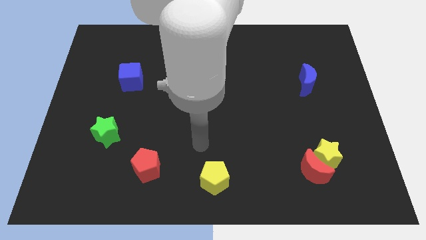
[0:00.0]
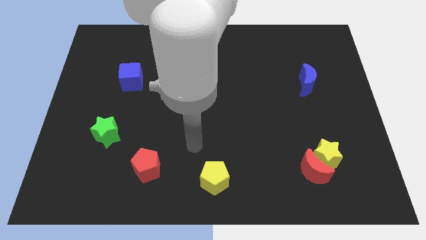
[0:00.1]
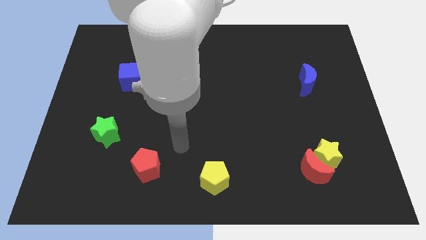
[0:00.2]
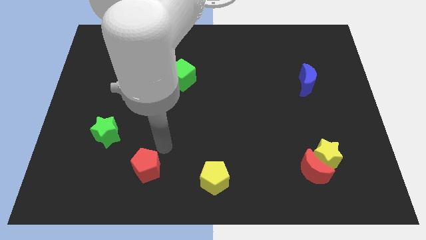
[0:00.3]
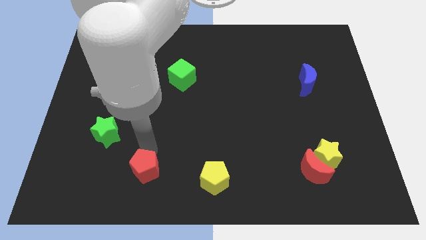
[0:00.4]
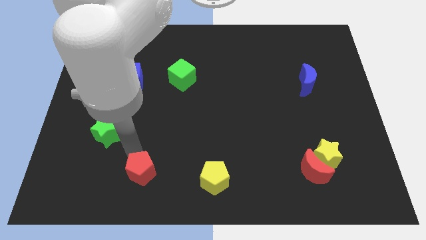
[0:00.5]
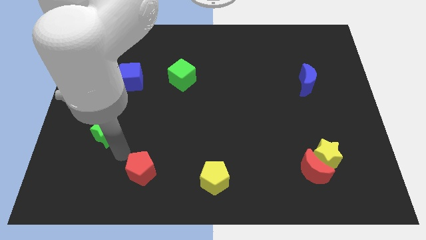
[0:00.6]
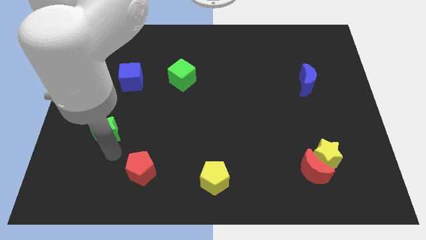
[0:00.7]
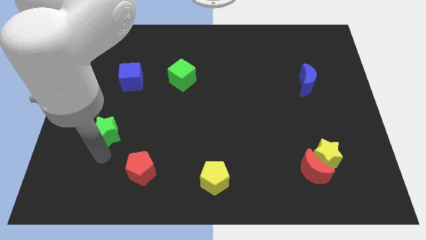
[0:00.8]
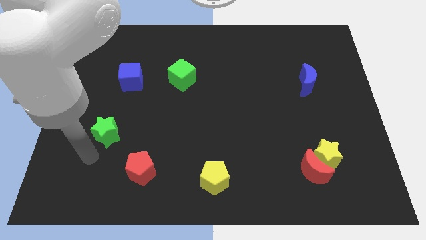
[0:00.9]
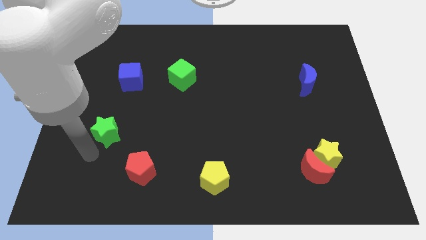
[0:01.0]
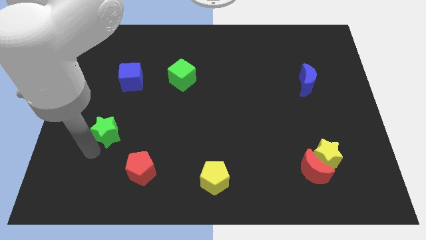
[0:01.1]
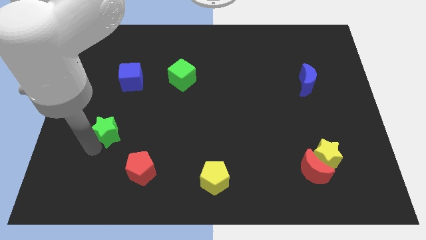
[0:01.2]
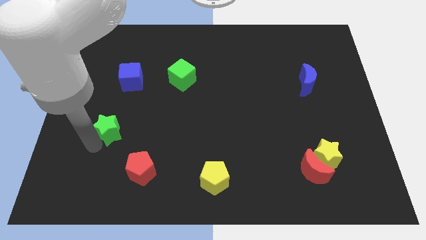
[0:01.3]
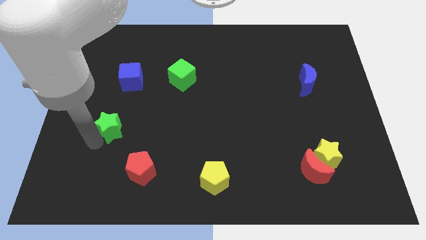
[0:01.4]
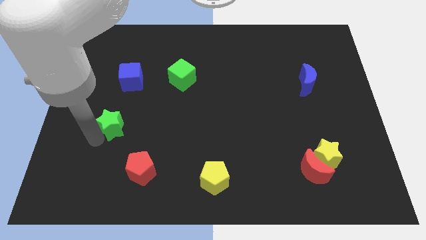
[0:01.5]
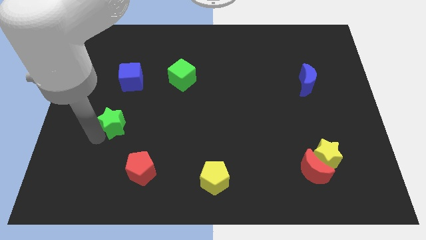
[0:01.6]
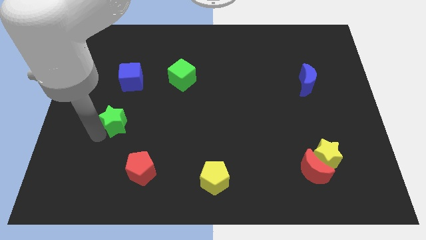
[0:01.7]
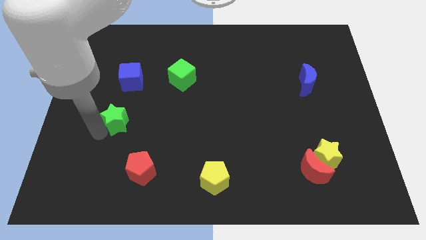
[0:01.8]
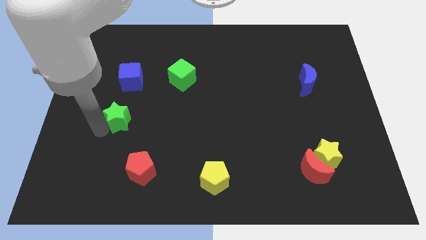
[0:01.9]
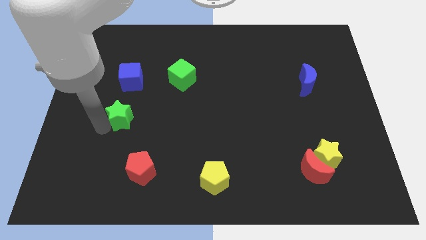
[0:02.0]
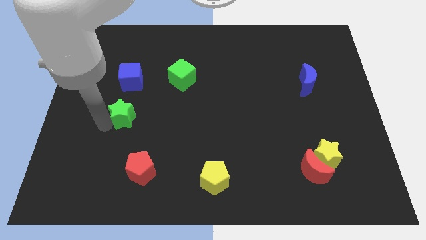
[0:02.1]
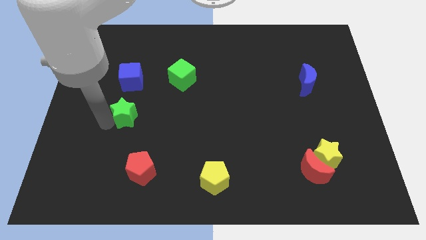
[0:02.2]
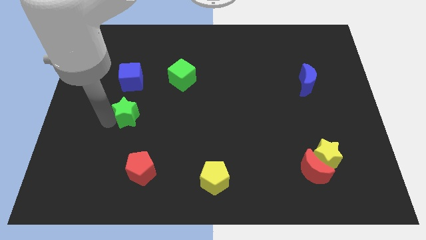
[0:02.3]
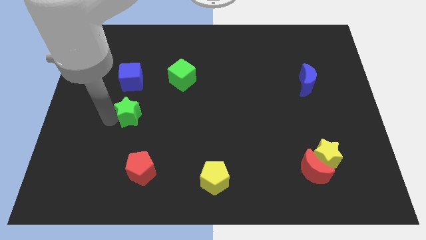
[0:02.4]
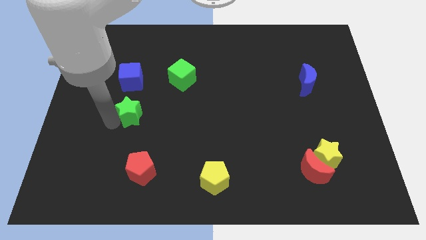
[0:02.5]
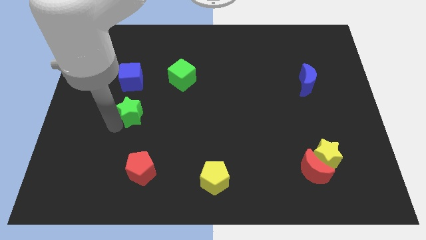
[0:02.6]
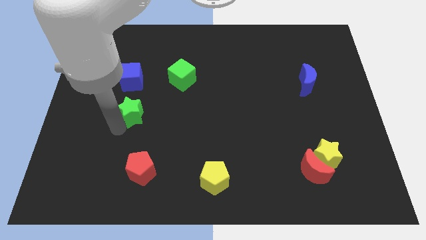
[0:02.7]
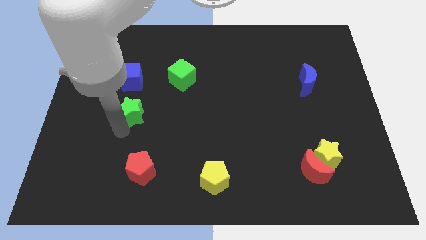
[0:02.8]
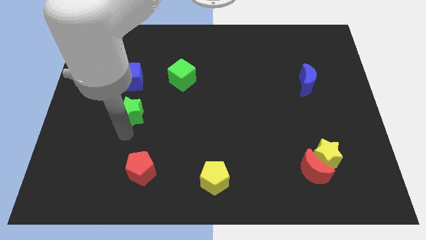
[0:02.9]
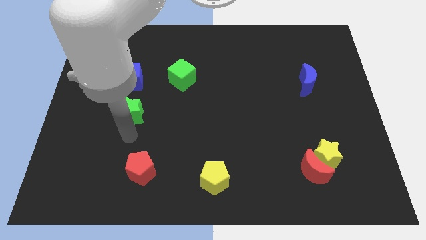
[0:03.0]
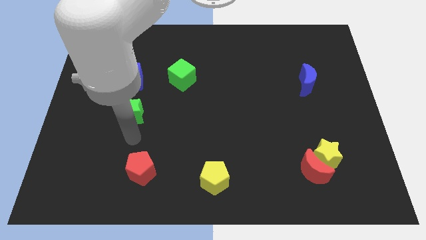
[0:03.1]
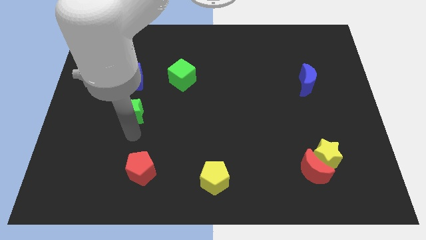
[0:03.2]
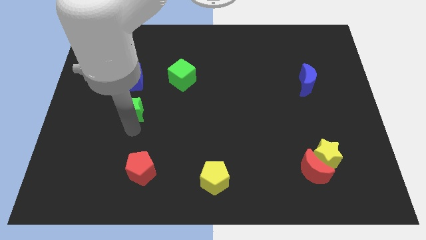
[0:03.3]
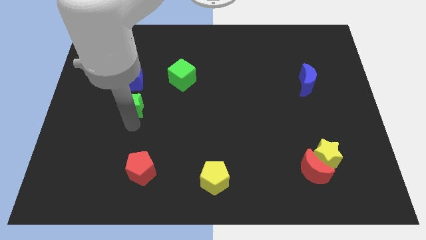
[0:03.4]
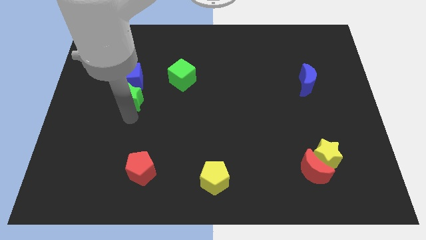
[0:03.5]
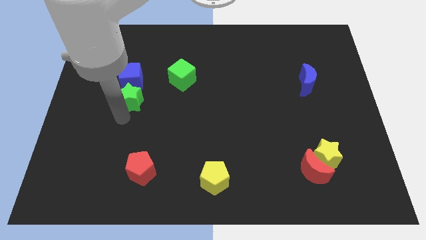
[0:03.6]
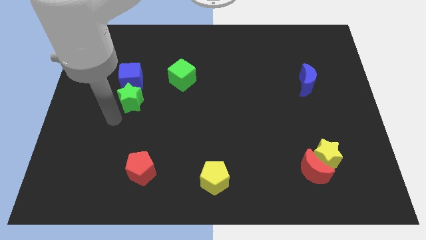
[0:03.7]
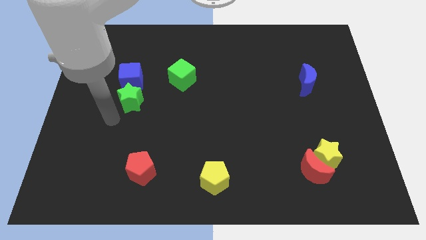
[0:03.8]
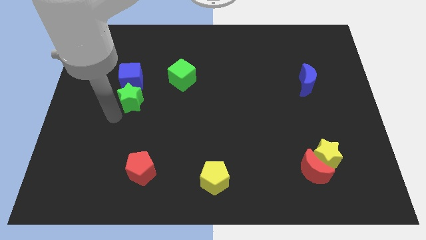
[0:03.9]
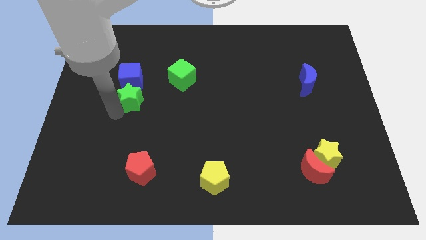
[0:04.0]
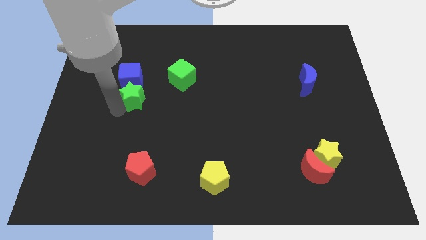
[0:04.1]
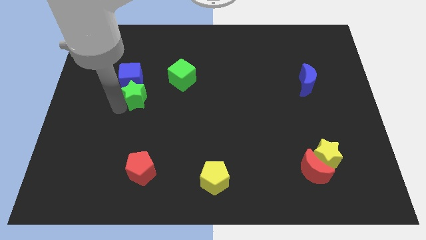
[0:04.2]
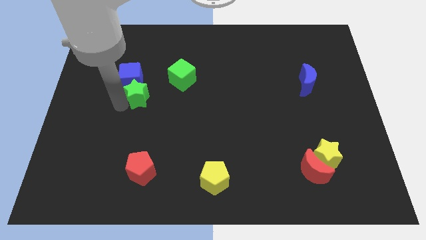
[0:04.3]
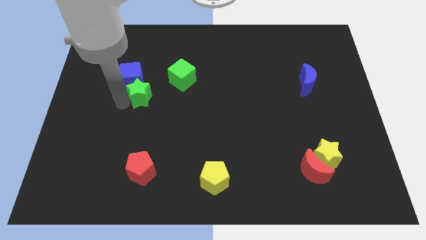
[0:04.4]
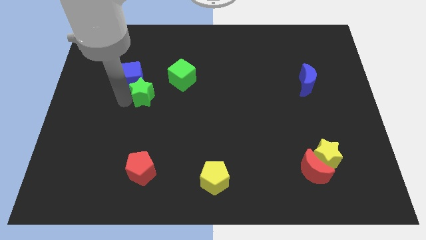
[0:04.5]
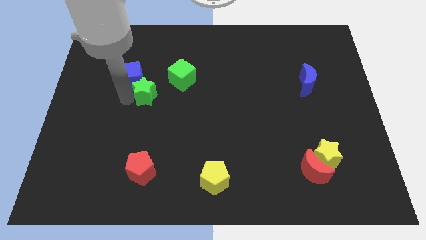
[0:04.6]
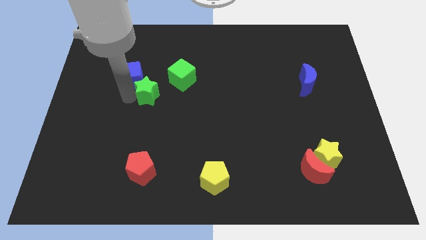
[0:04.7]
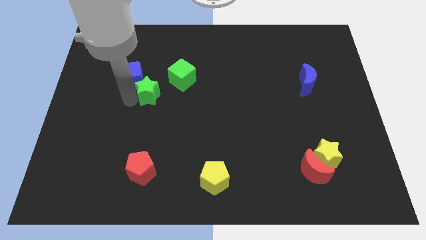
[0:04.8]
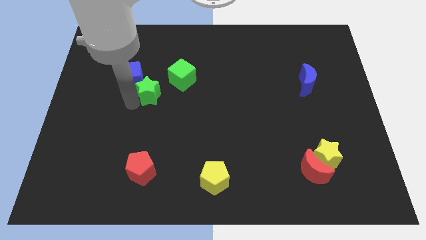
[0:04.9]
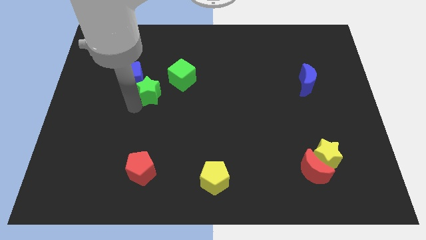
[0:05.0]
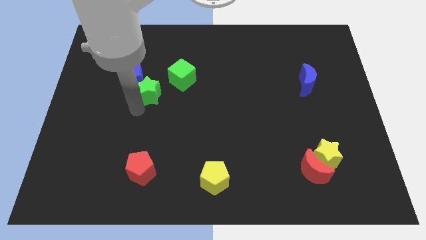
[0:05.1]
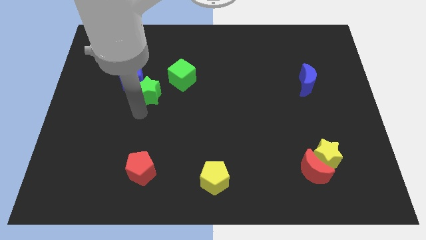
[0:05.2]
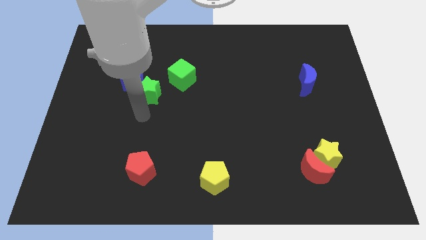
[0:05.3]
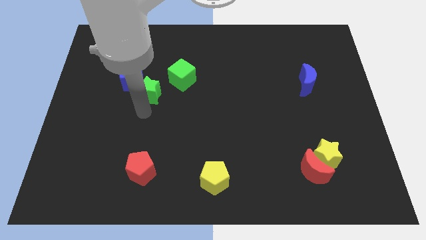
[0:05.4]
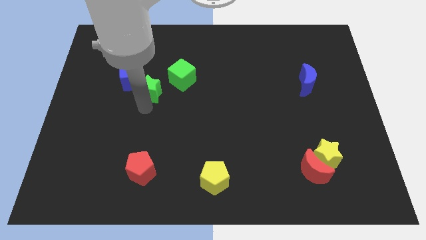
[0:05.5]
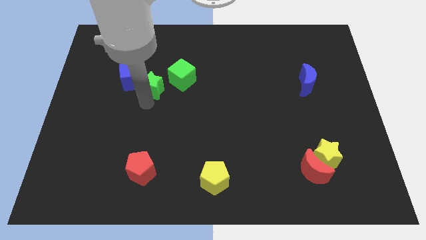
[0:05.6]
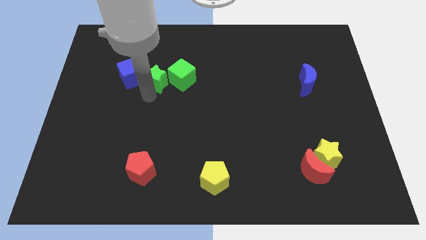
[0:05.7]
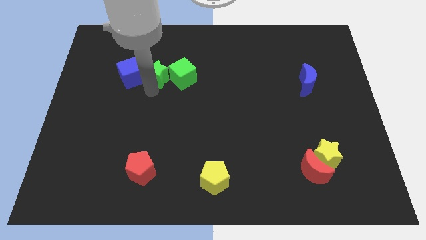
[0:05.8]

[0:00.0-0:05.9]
move the green star diagonally up and to the left of the green cube

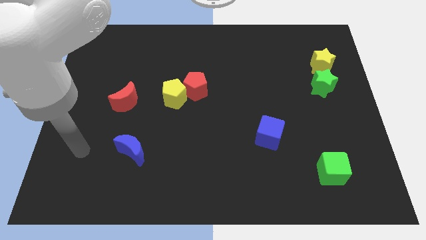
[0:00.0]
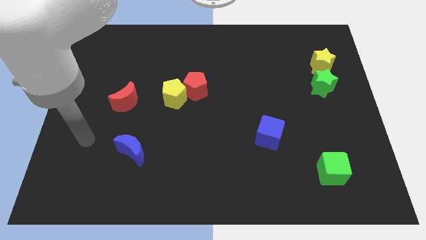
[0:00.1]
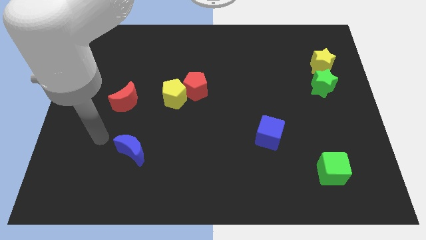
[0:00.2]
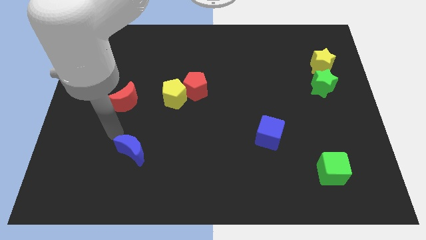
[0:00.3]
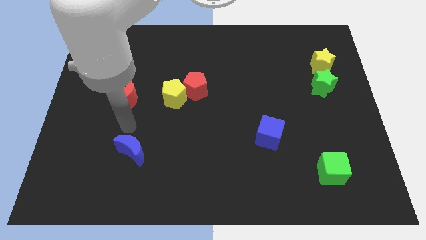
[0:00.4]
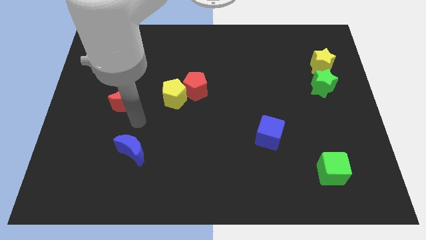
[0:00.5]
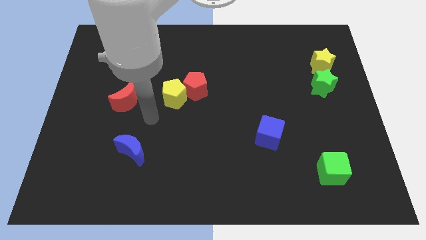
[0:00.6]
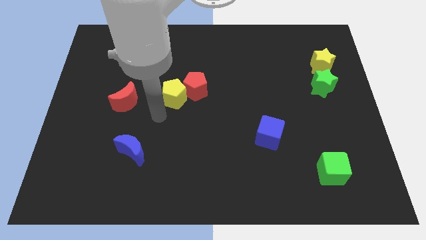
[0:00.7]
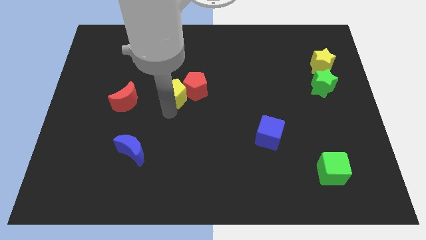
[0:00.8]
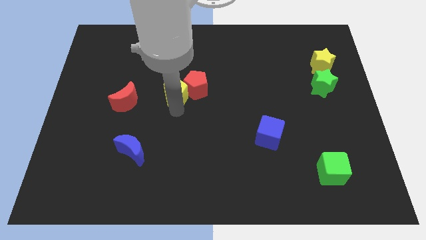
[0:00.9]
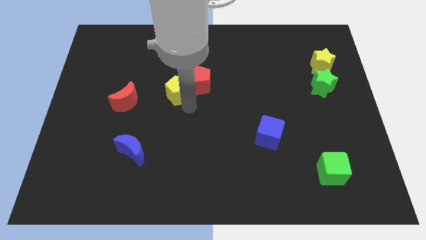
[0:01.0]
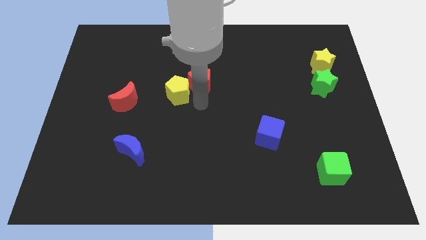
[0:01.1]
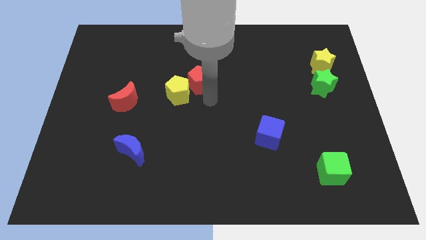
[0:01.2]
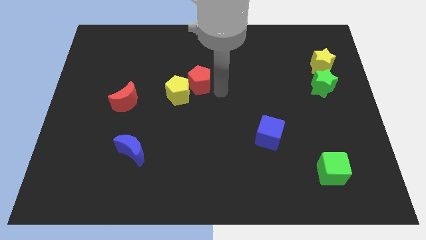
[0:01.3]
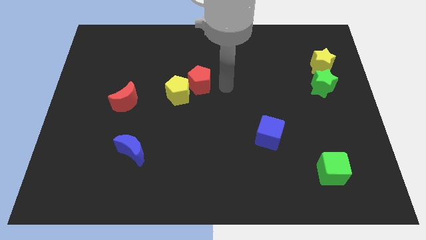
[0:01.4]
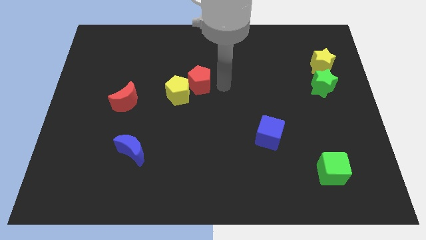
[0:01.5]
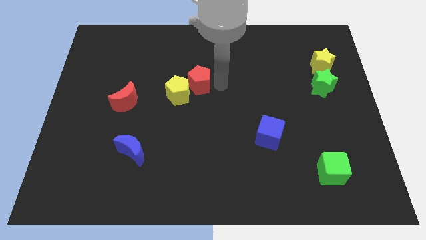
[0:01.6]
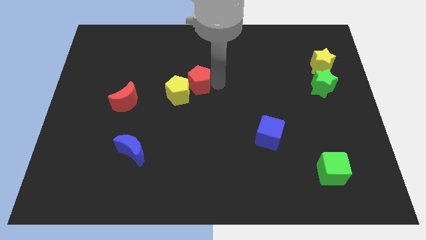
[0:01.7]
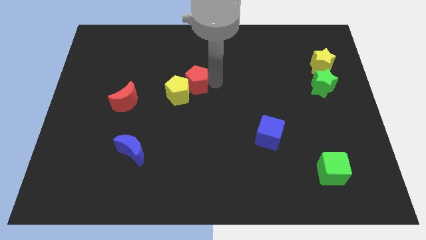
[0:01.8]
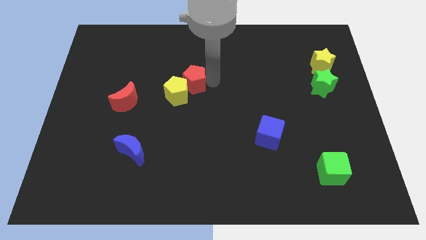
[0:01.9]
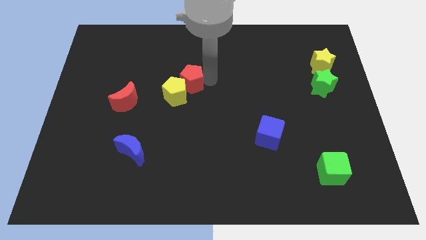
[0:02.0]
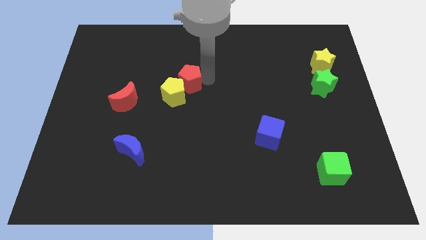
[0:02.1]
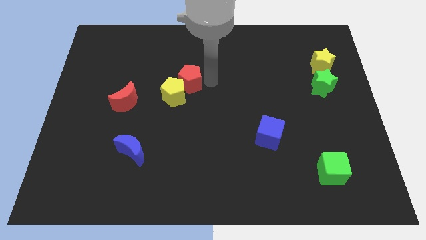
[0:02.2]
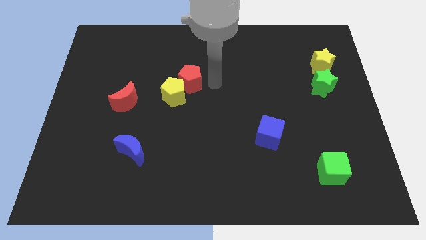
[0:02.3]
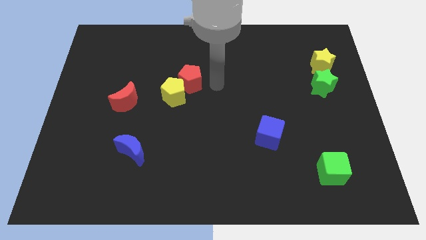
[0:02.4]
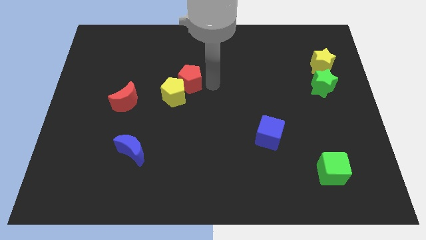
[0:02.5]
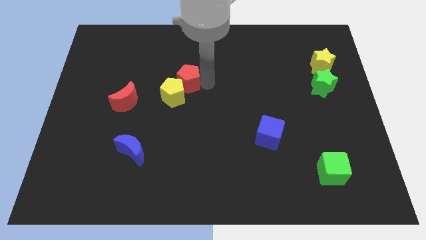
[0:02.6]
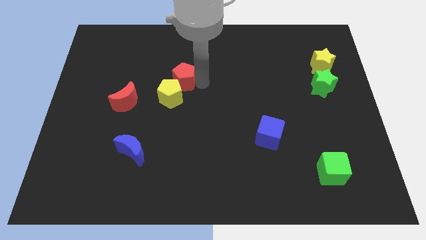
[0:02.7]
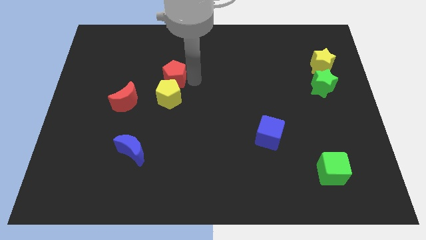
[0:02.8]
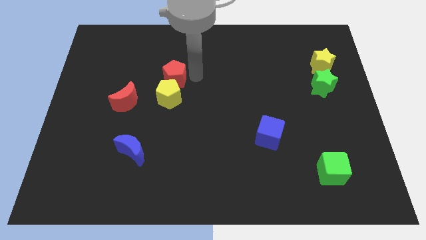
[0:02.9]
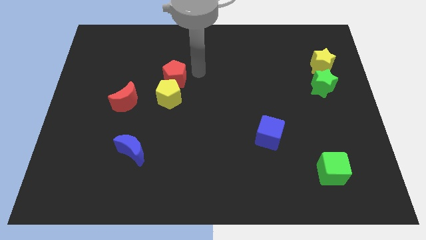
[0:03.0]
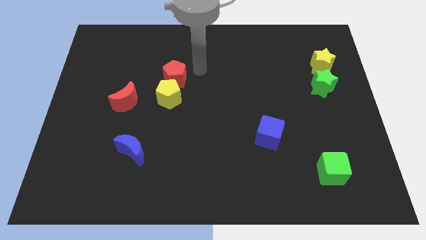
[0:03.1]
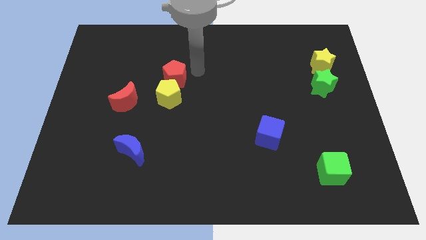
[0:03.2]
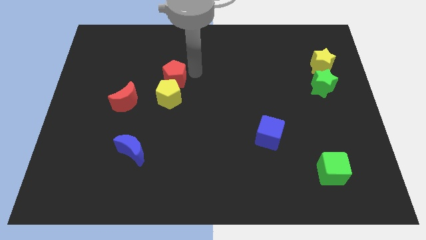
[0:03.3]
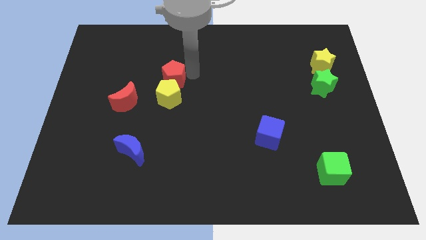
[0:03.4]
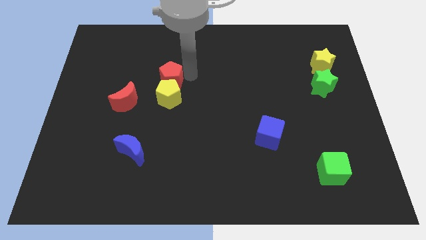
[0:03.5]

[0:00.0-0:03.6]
slide the red pentagon to the top right of the red moon
